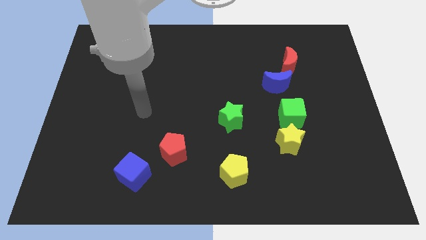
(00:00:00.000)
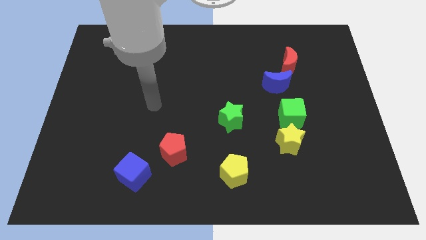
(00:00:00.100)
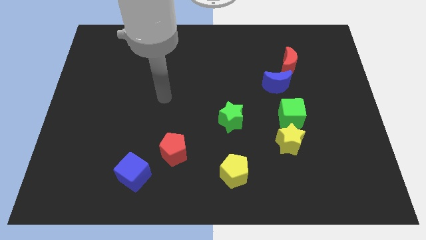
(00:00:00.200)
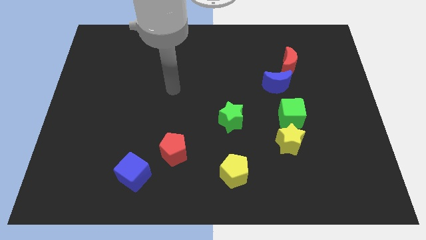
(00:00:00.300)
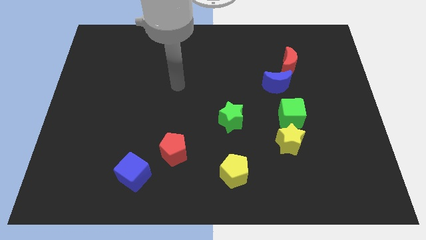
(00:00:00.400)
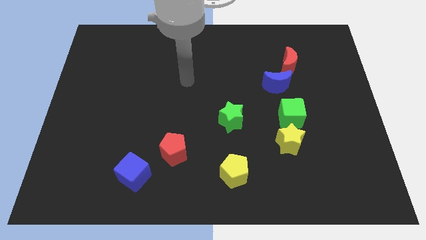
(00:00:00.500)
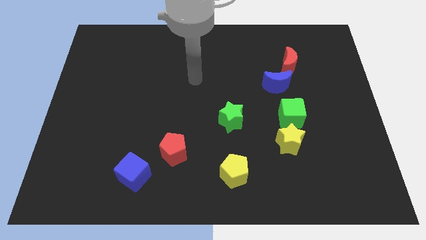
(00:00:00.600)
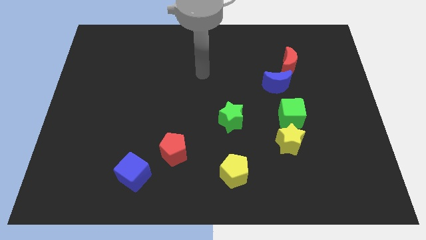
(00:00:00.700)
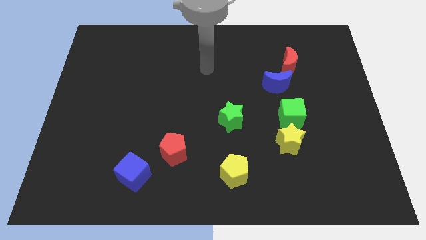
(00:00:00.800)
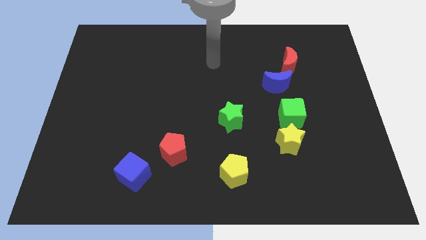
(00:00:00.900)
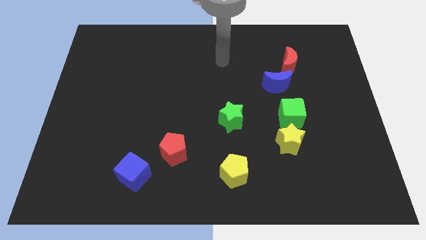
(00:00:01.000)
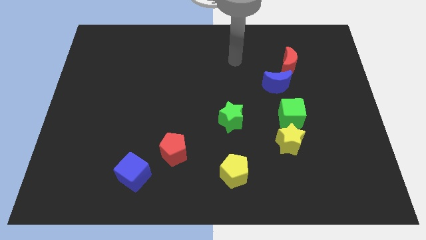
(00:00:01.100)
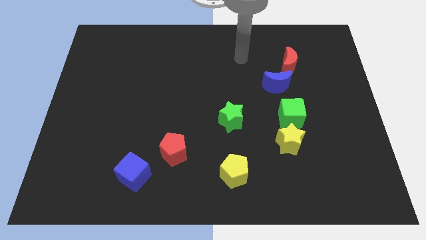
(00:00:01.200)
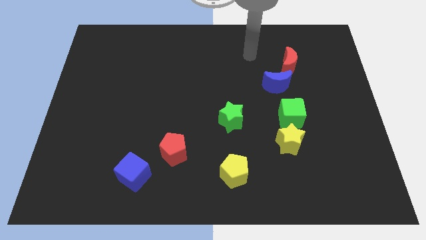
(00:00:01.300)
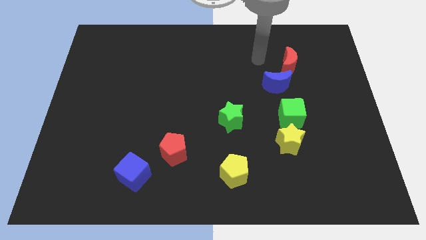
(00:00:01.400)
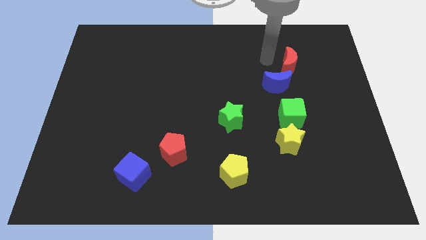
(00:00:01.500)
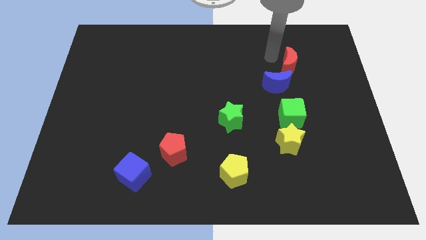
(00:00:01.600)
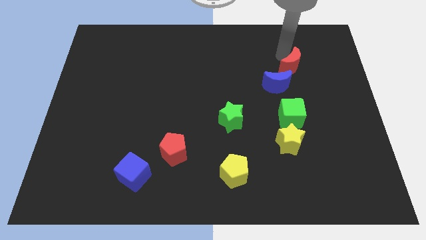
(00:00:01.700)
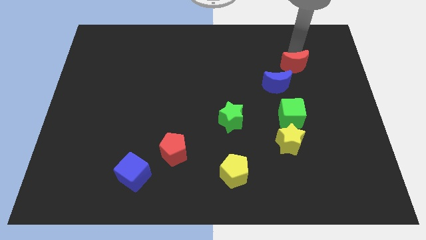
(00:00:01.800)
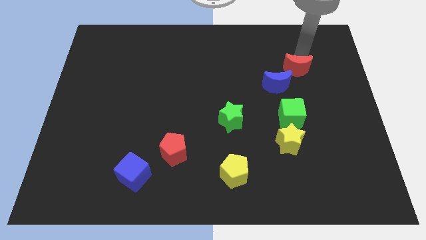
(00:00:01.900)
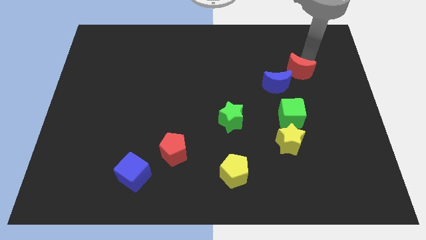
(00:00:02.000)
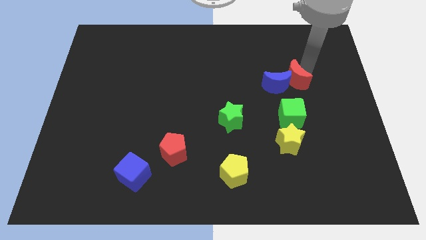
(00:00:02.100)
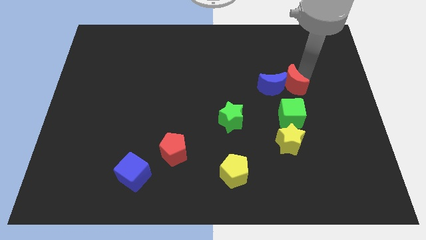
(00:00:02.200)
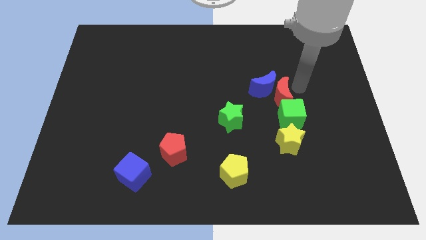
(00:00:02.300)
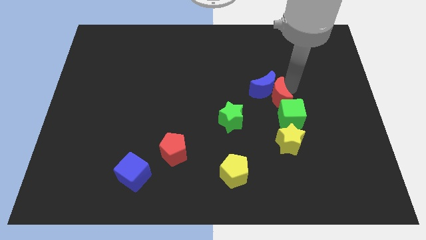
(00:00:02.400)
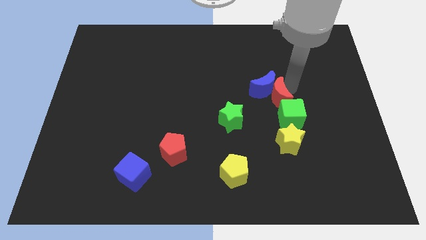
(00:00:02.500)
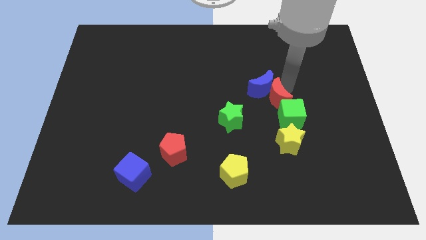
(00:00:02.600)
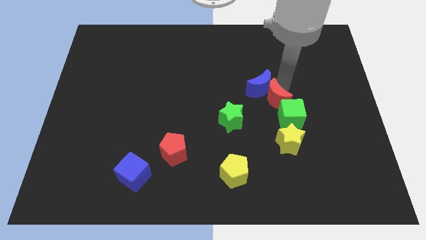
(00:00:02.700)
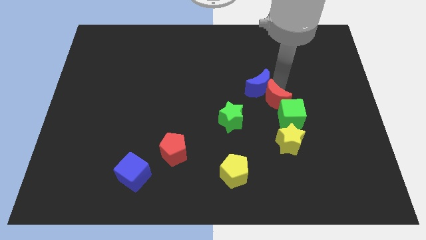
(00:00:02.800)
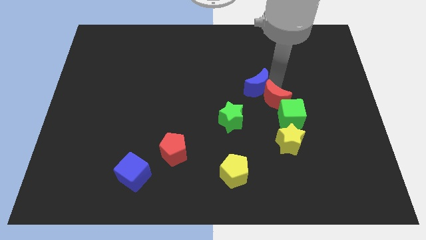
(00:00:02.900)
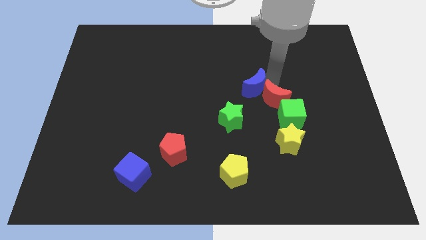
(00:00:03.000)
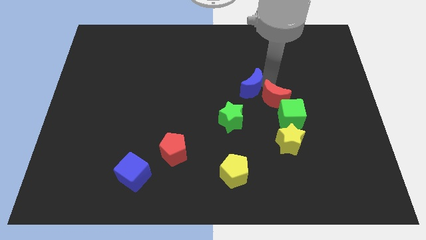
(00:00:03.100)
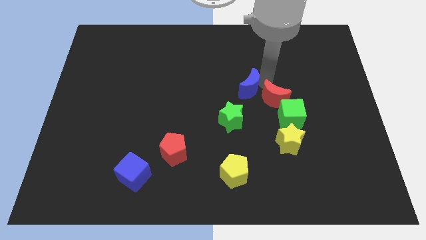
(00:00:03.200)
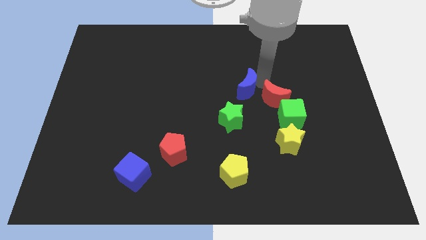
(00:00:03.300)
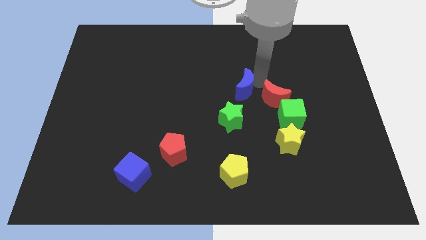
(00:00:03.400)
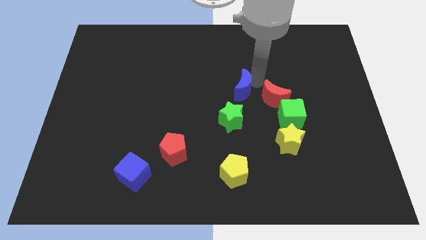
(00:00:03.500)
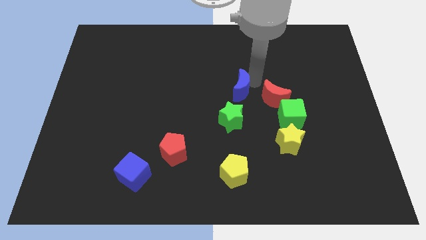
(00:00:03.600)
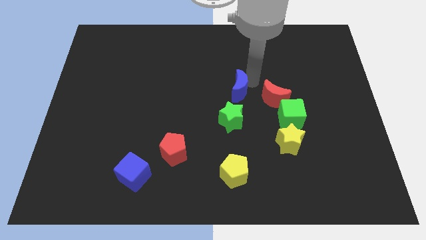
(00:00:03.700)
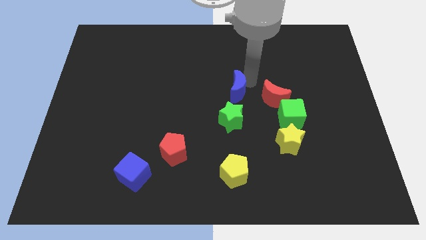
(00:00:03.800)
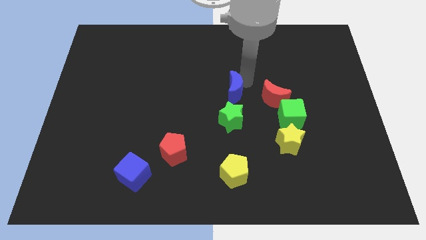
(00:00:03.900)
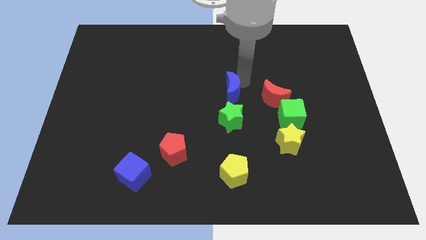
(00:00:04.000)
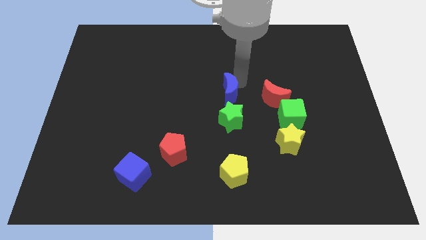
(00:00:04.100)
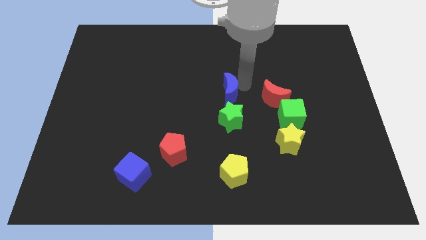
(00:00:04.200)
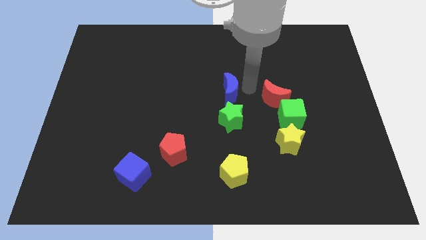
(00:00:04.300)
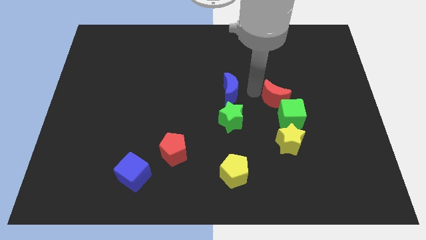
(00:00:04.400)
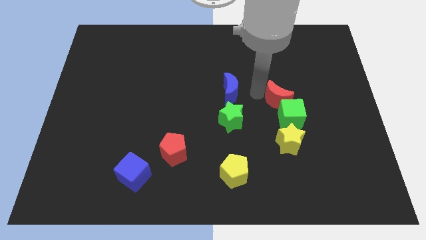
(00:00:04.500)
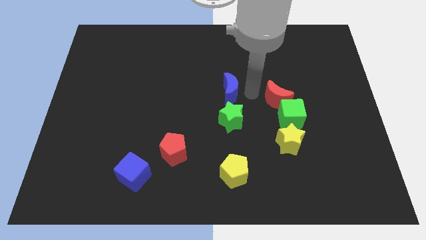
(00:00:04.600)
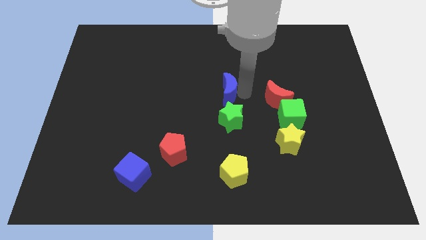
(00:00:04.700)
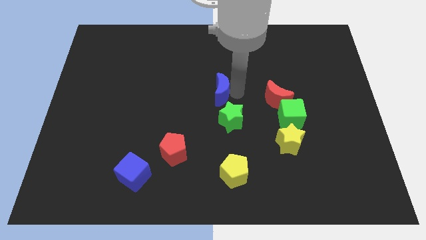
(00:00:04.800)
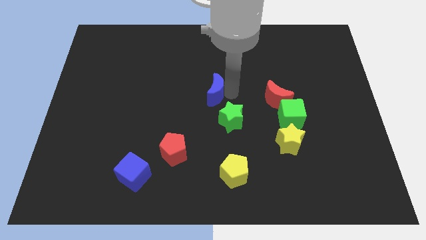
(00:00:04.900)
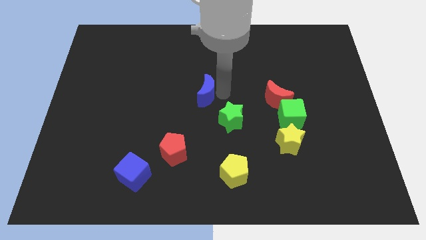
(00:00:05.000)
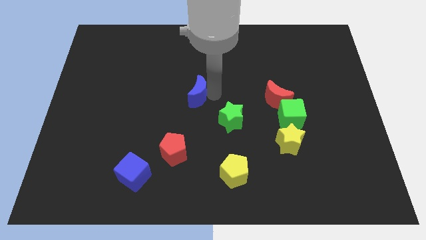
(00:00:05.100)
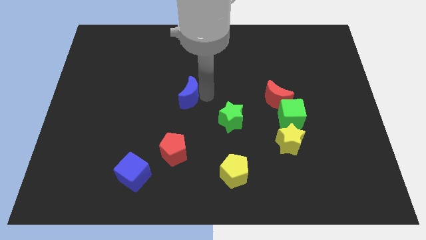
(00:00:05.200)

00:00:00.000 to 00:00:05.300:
push the blue moon left

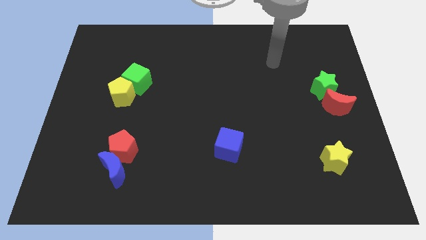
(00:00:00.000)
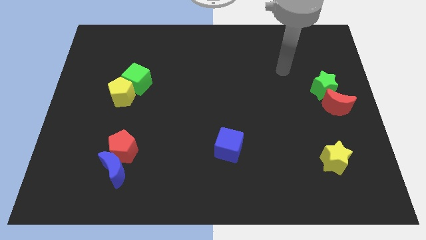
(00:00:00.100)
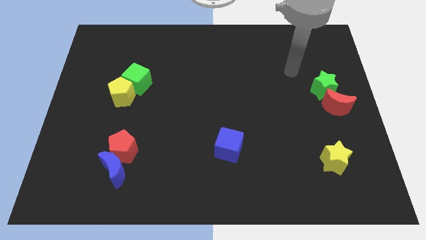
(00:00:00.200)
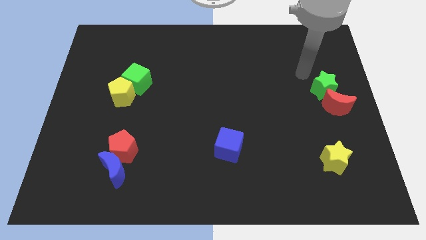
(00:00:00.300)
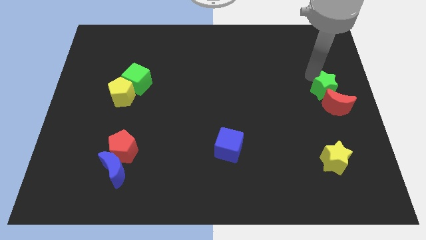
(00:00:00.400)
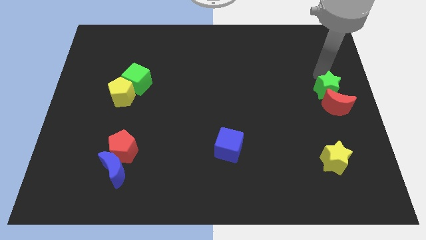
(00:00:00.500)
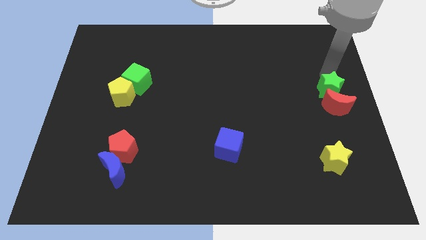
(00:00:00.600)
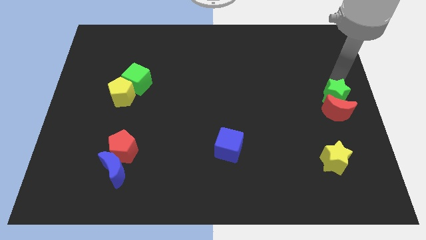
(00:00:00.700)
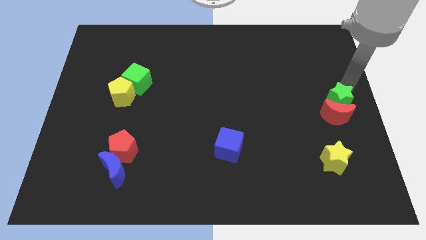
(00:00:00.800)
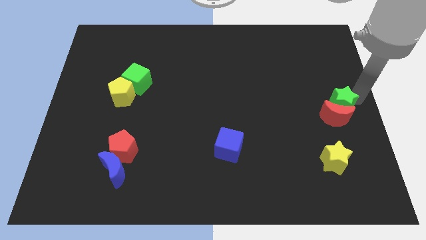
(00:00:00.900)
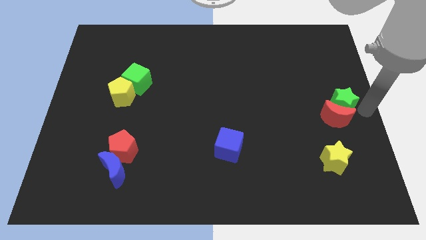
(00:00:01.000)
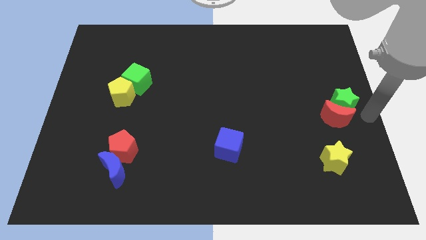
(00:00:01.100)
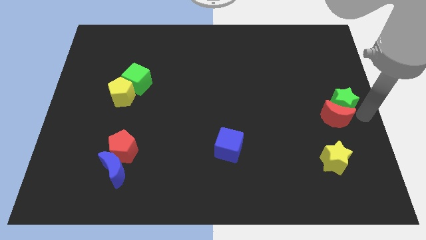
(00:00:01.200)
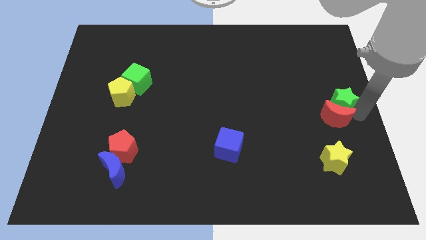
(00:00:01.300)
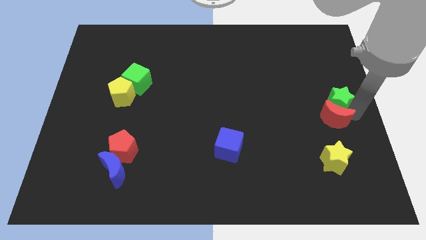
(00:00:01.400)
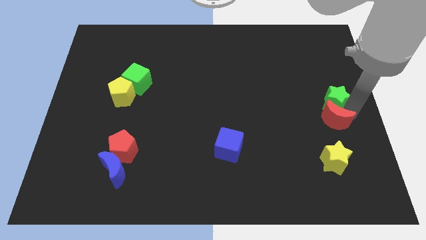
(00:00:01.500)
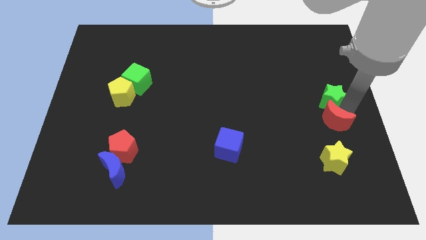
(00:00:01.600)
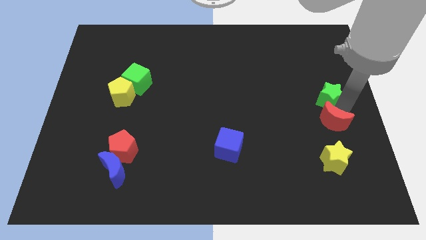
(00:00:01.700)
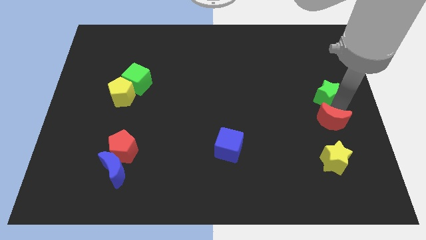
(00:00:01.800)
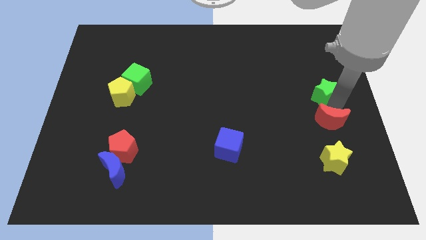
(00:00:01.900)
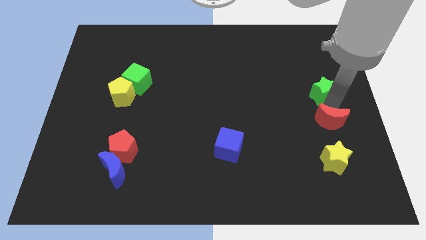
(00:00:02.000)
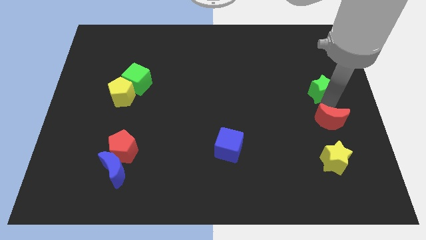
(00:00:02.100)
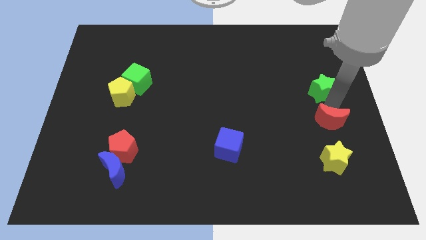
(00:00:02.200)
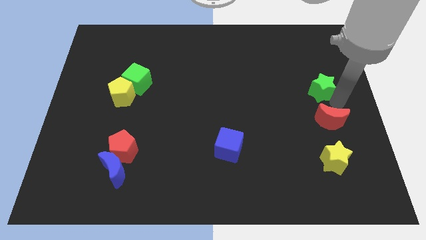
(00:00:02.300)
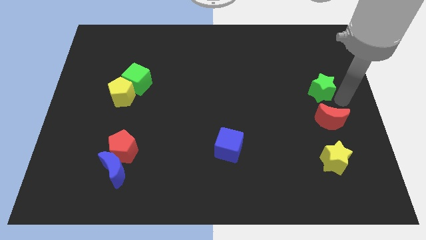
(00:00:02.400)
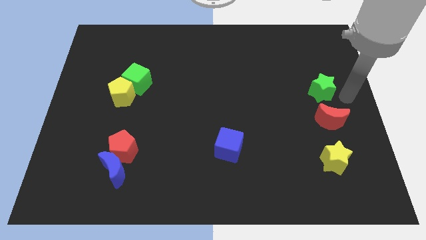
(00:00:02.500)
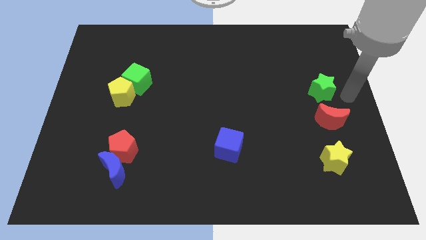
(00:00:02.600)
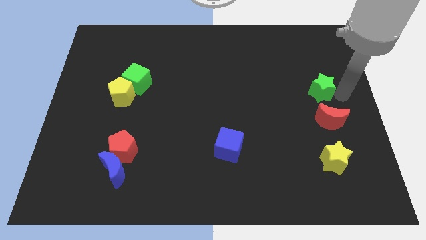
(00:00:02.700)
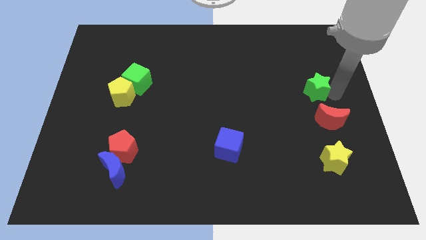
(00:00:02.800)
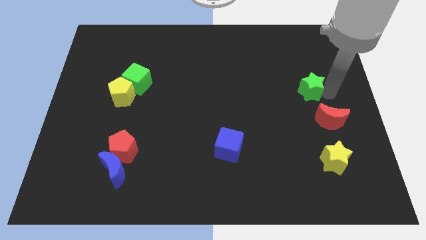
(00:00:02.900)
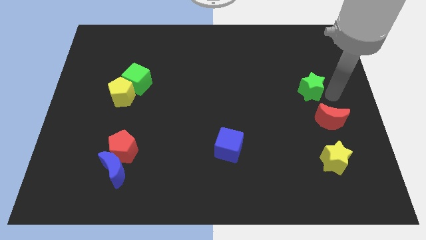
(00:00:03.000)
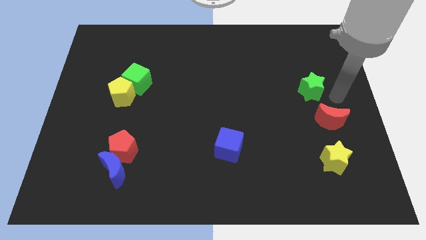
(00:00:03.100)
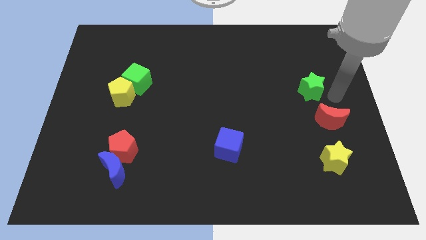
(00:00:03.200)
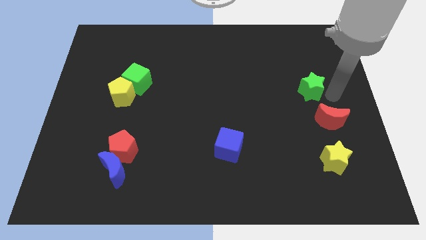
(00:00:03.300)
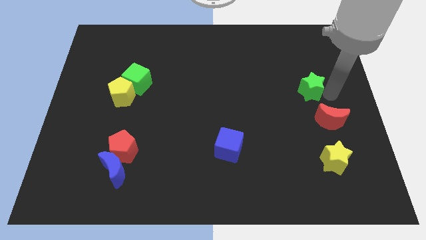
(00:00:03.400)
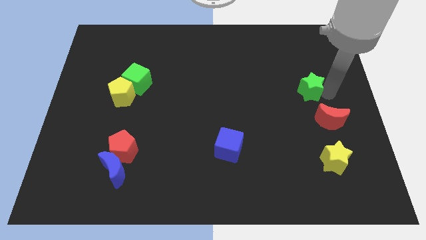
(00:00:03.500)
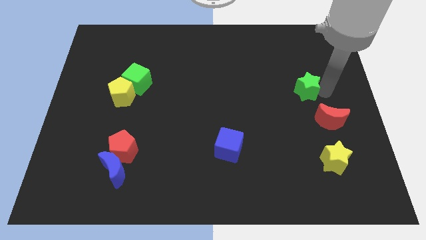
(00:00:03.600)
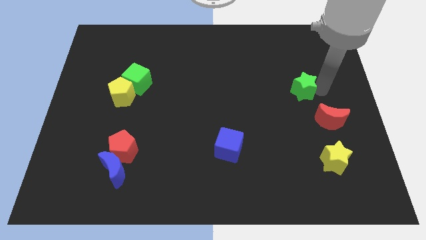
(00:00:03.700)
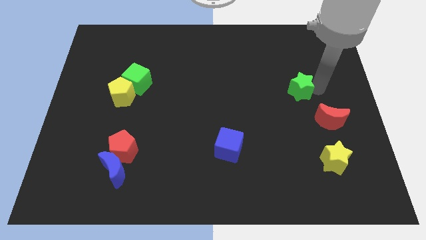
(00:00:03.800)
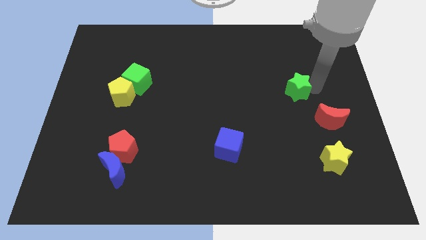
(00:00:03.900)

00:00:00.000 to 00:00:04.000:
slide the green star a little bit to the left
